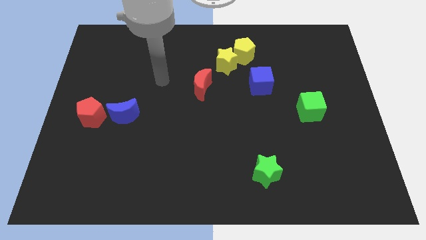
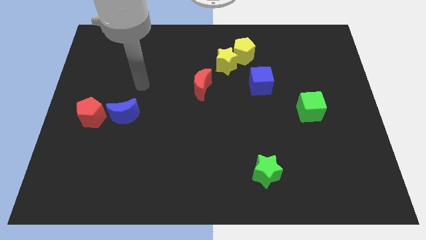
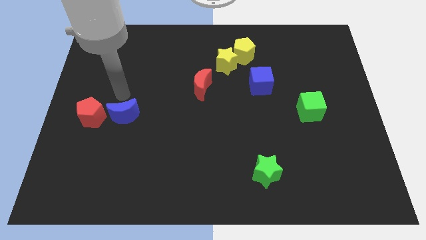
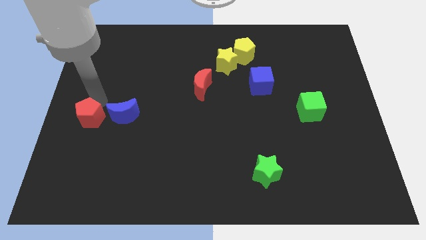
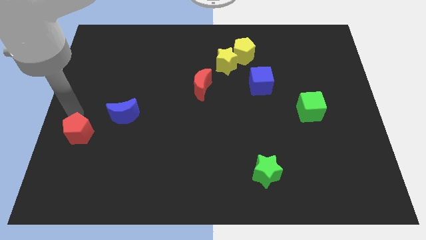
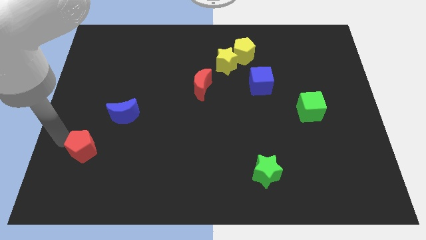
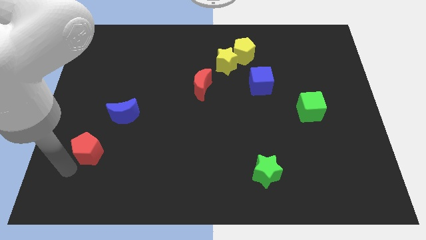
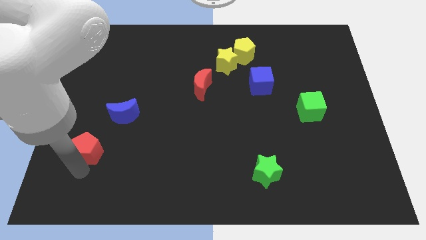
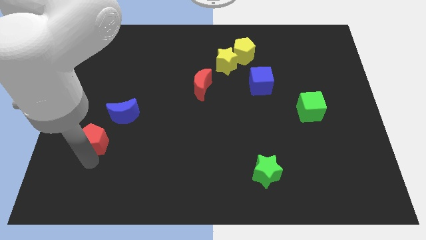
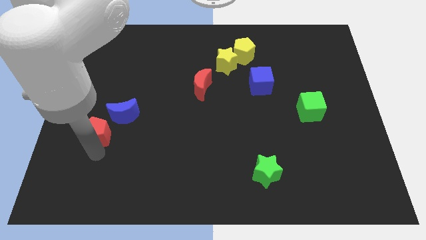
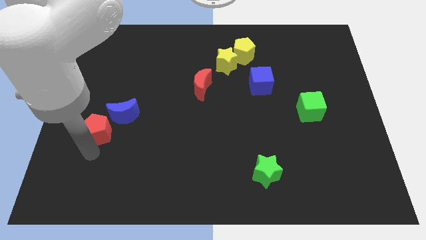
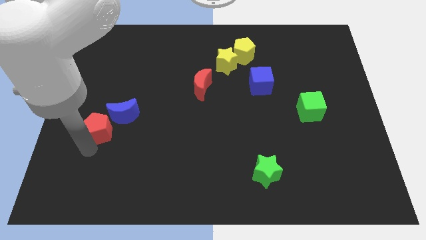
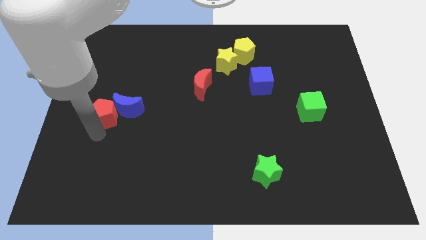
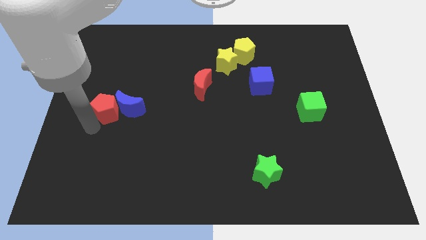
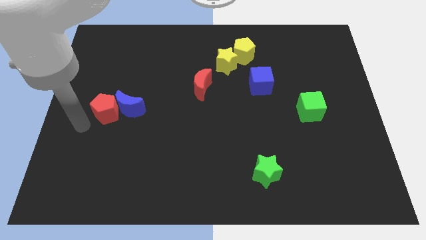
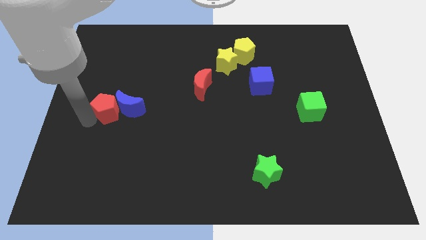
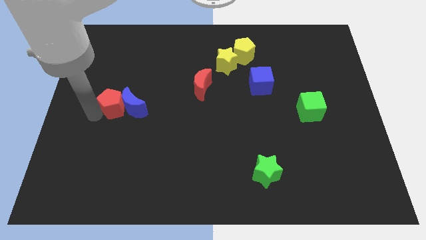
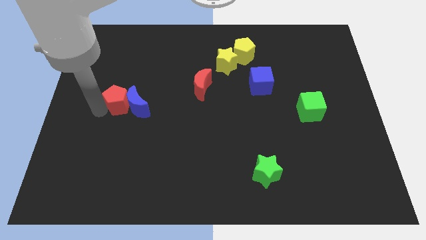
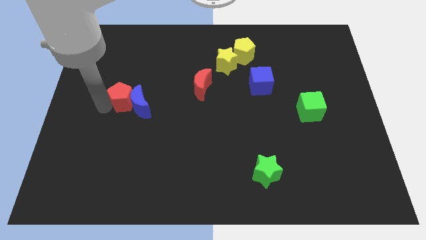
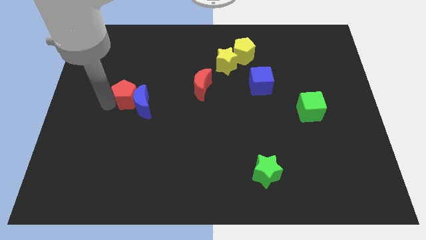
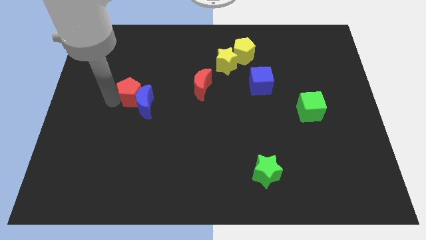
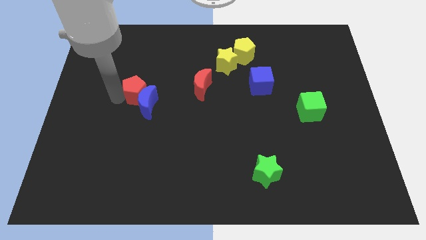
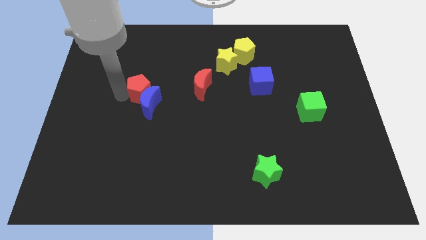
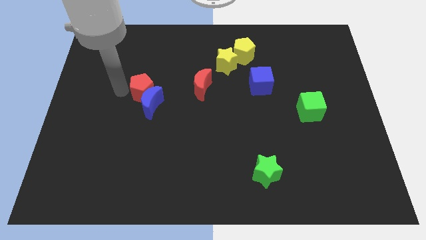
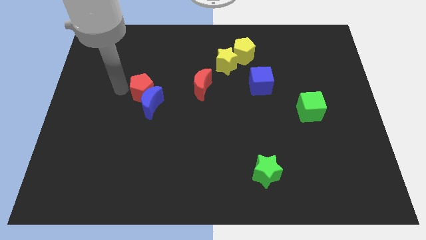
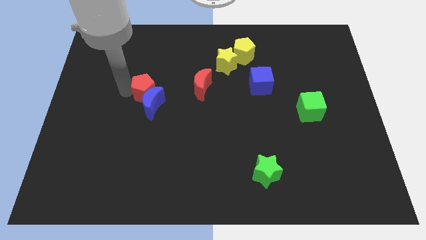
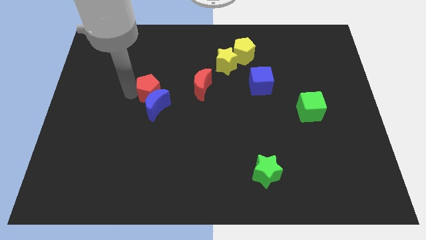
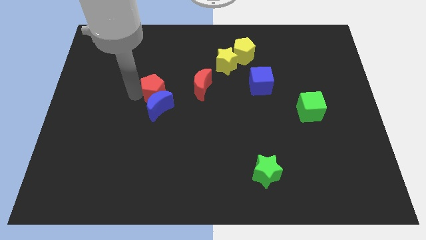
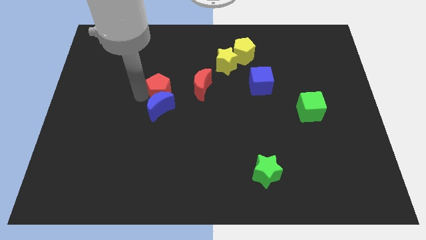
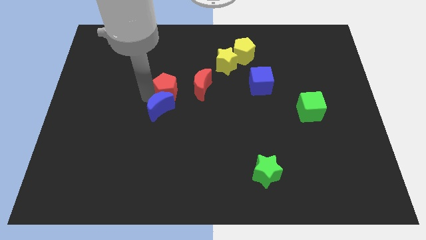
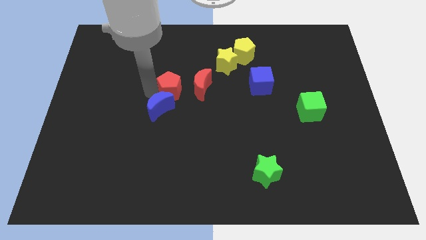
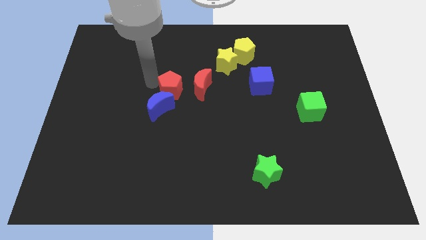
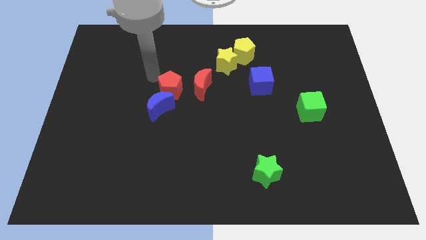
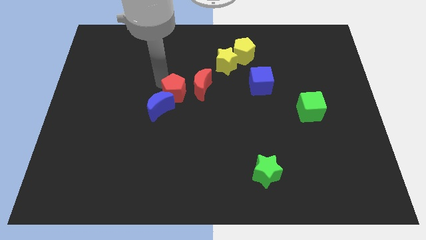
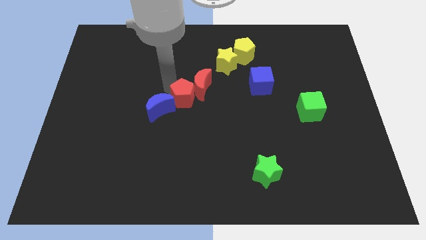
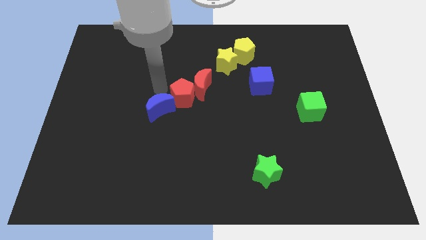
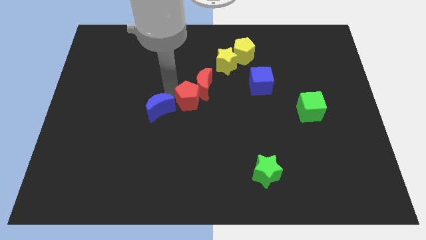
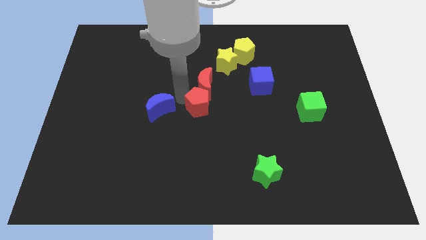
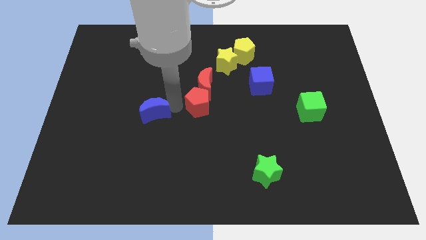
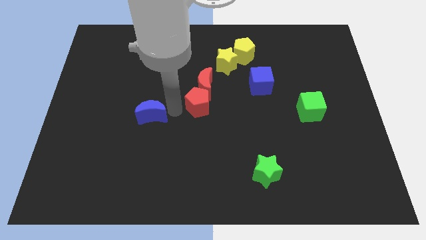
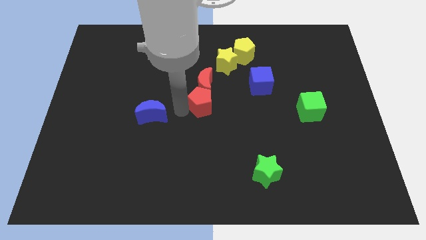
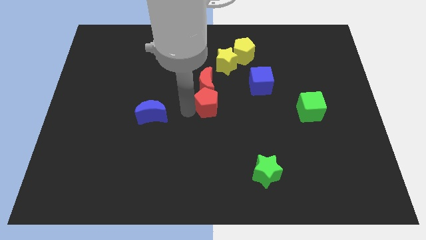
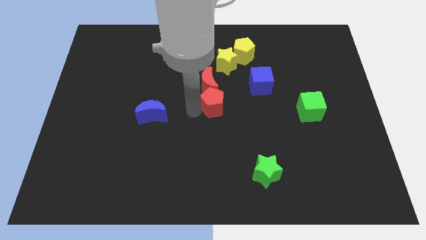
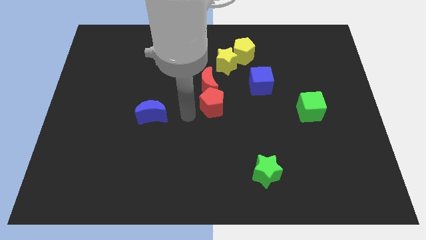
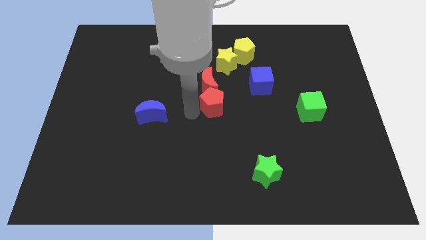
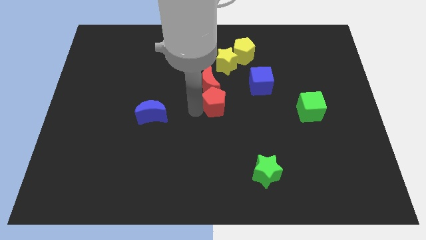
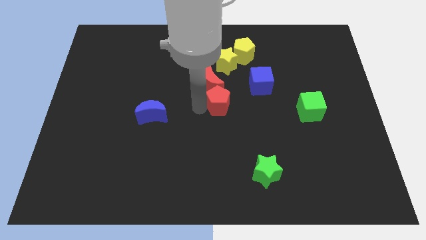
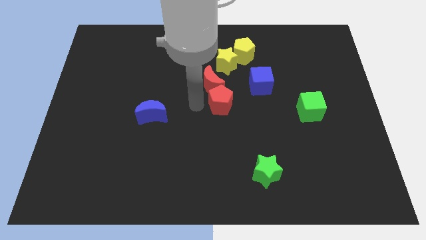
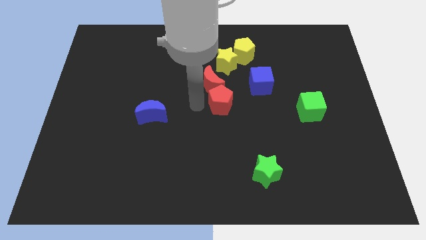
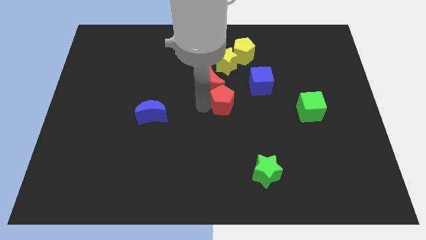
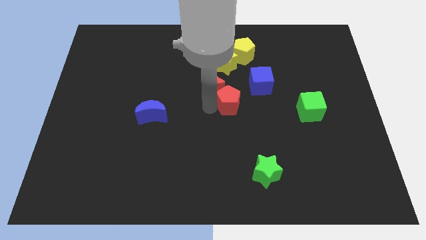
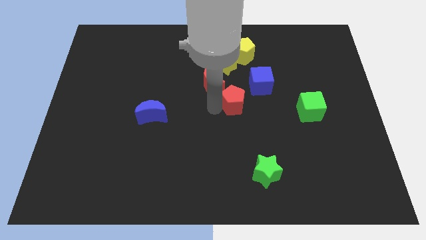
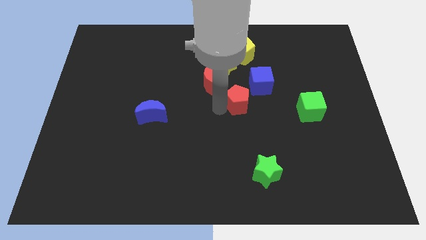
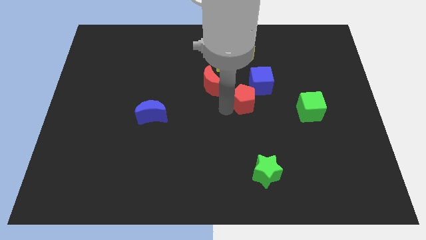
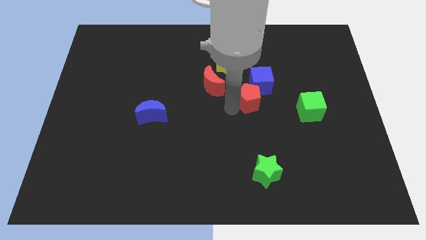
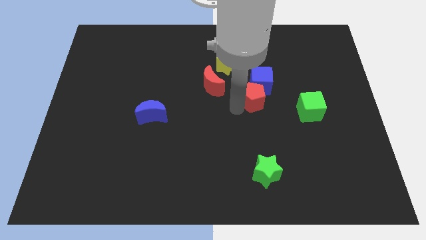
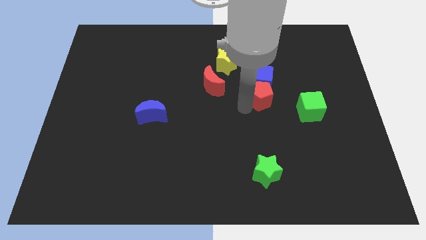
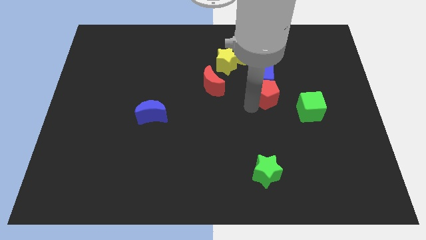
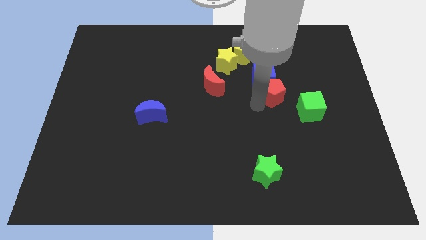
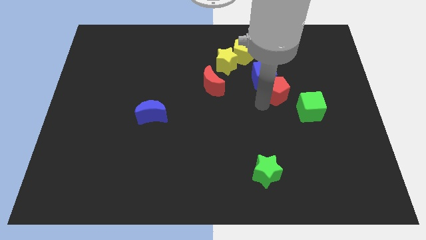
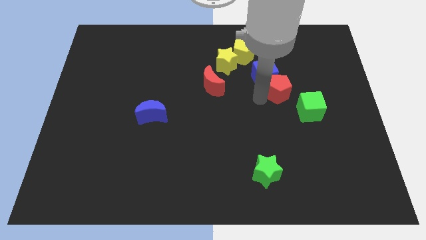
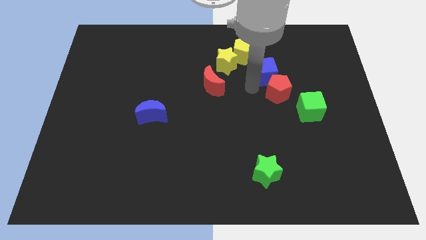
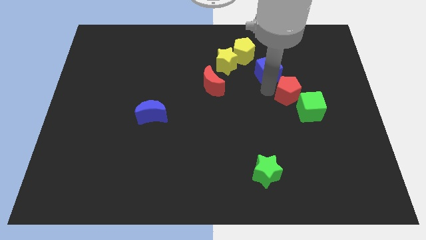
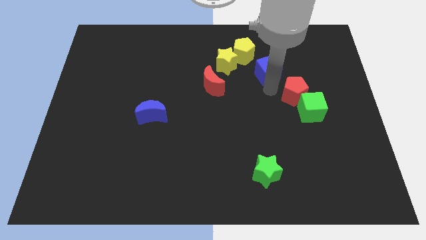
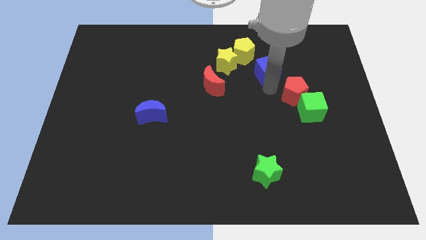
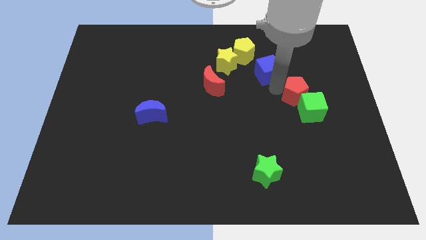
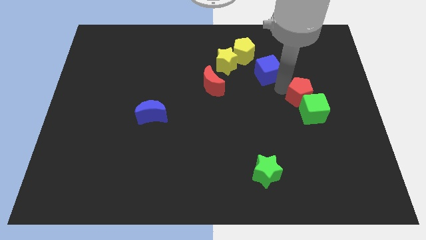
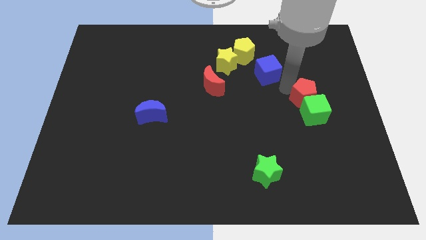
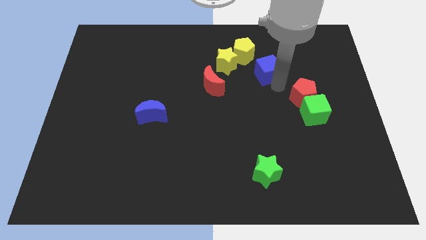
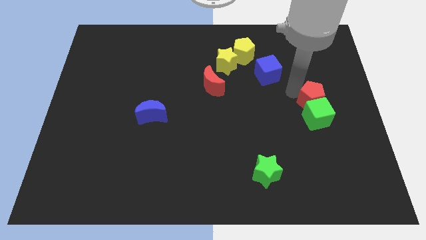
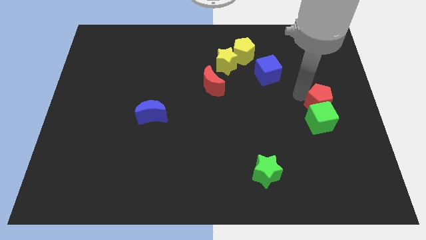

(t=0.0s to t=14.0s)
put the red pentagon to the center right
